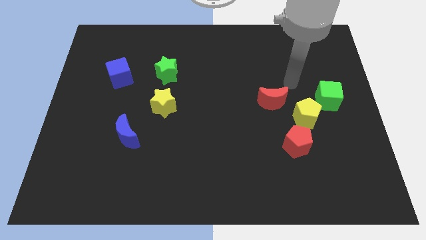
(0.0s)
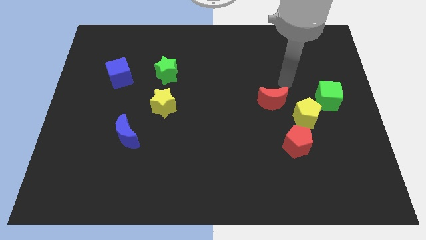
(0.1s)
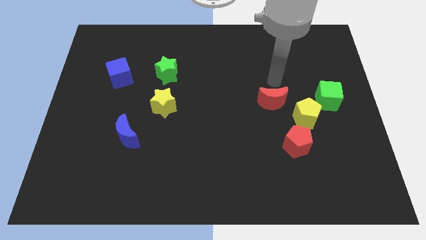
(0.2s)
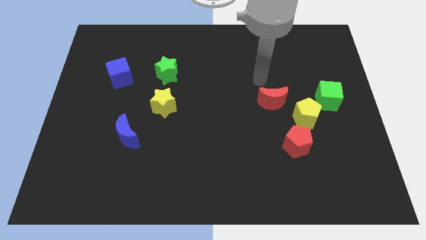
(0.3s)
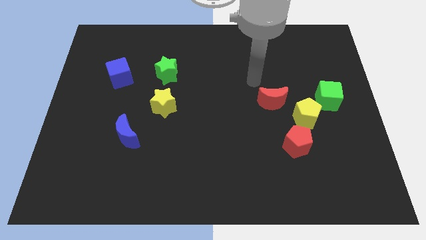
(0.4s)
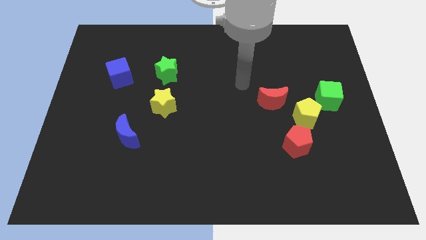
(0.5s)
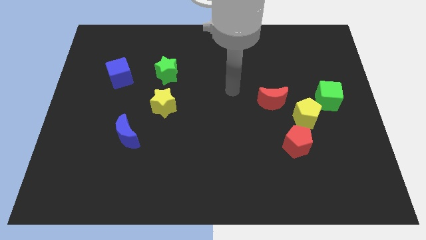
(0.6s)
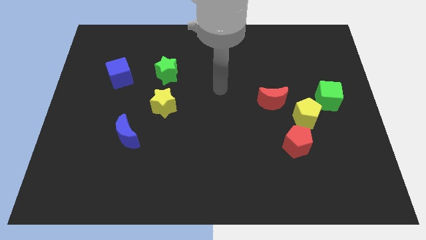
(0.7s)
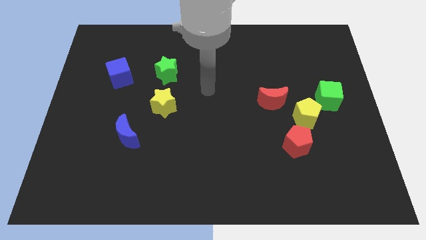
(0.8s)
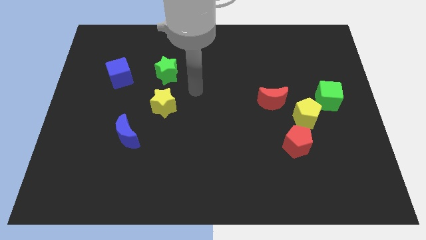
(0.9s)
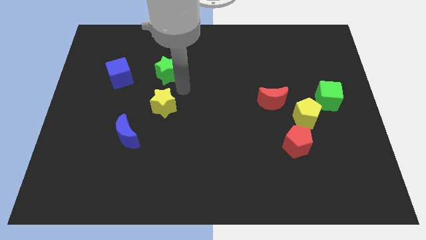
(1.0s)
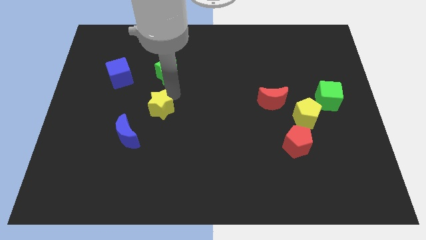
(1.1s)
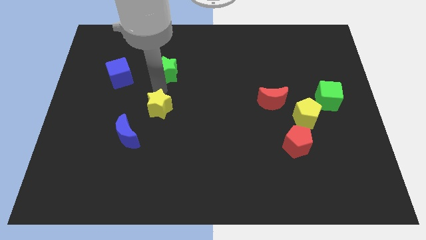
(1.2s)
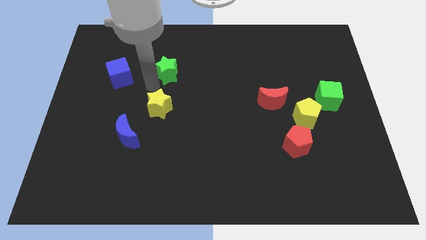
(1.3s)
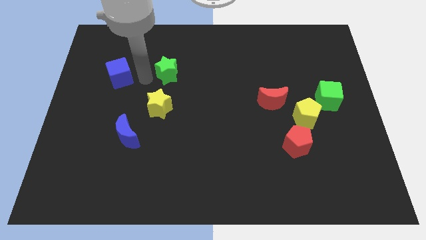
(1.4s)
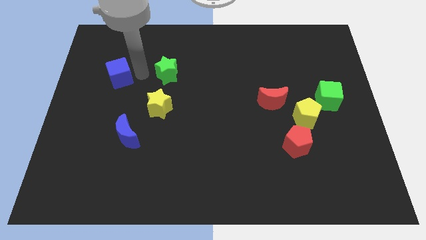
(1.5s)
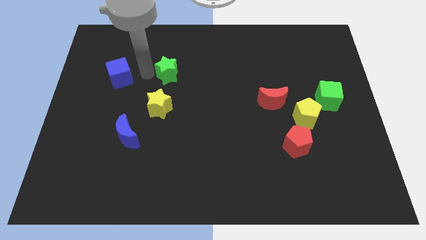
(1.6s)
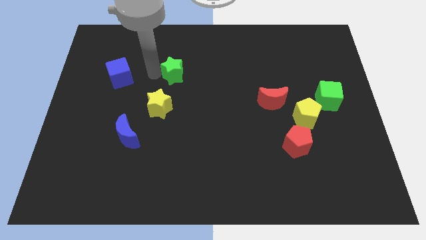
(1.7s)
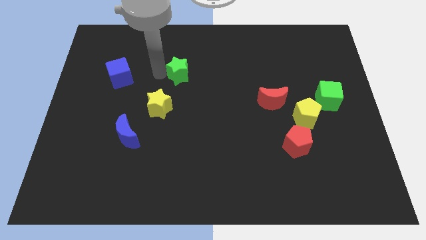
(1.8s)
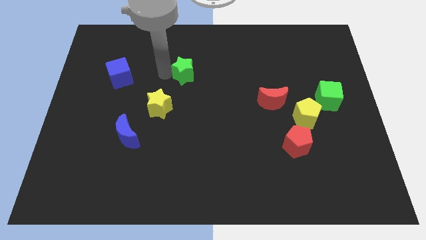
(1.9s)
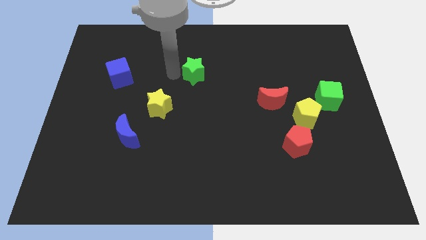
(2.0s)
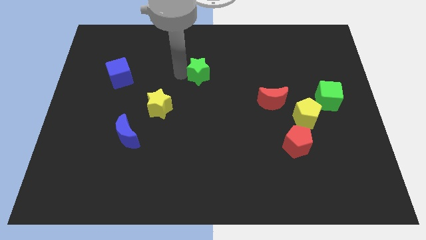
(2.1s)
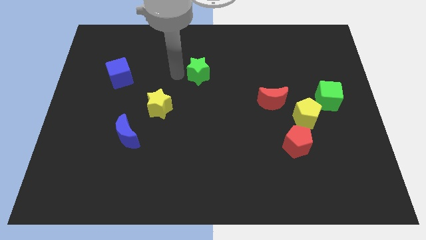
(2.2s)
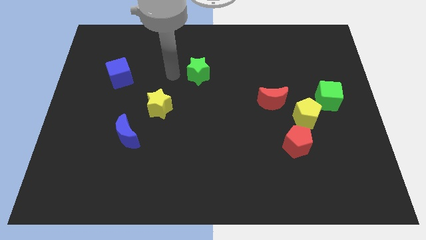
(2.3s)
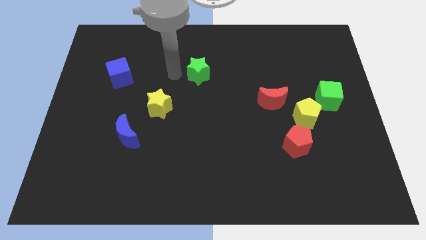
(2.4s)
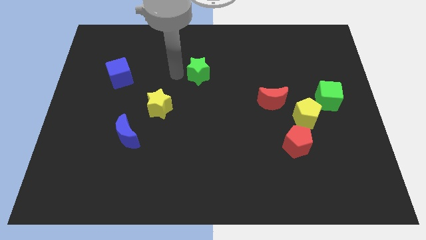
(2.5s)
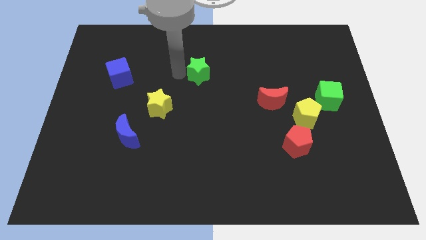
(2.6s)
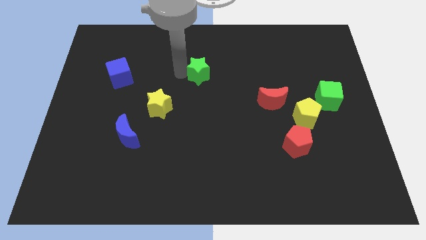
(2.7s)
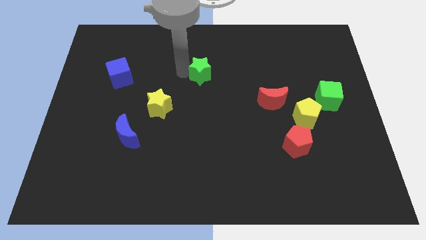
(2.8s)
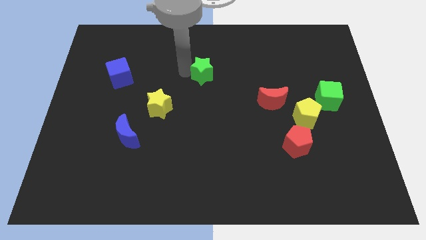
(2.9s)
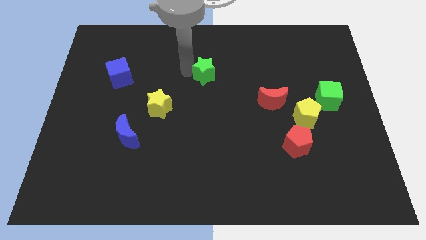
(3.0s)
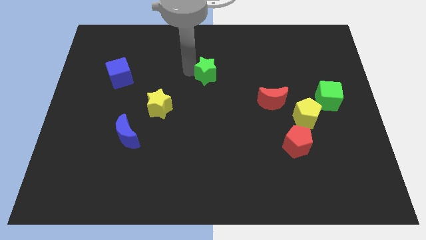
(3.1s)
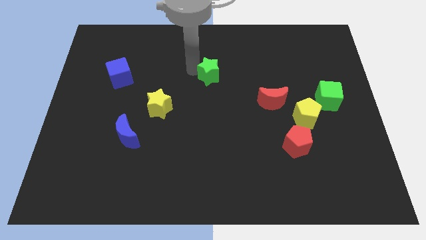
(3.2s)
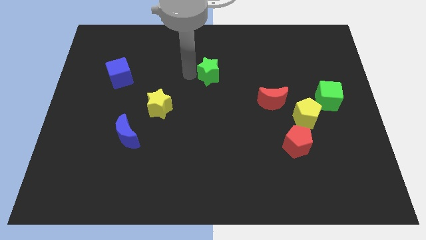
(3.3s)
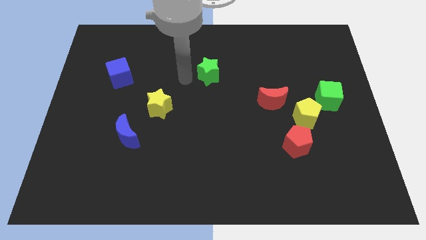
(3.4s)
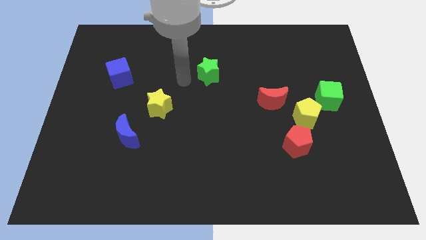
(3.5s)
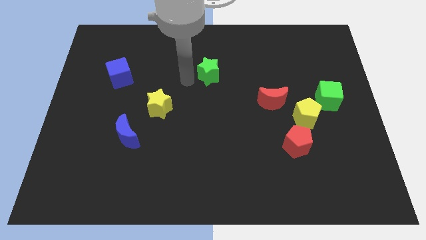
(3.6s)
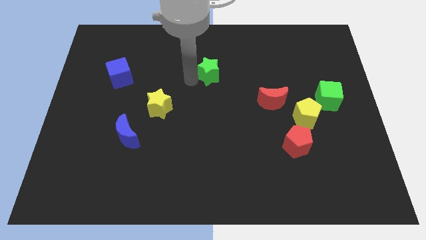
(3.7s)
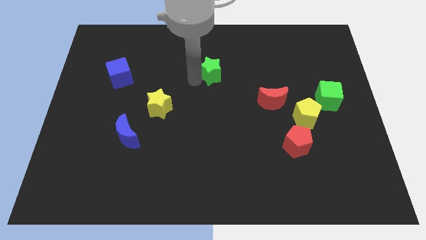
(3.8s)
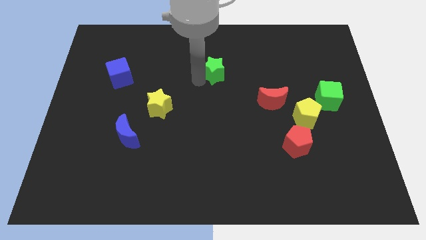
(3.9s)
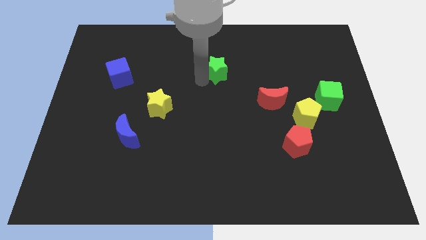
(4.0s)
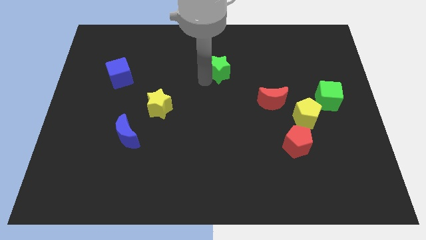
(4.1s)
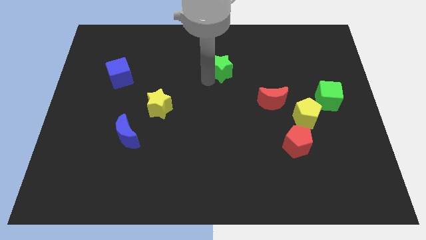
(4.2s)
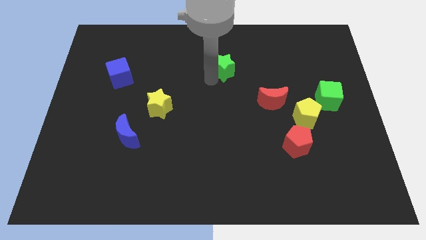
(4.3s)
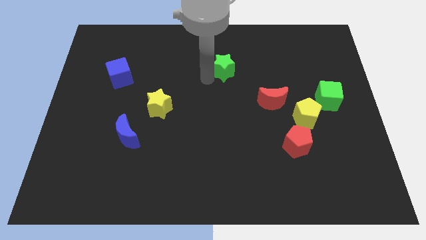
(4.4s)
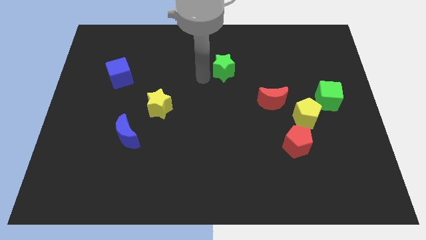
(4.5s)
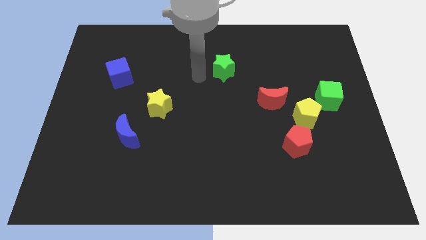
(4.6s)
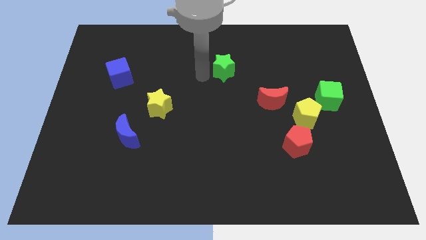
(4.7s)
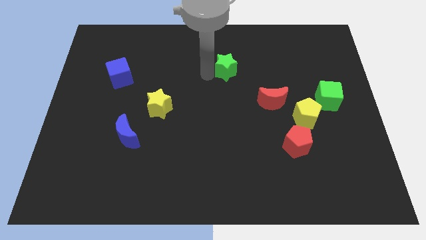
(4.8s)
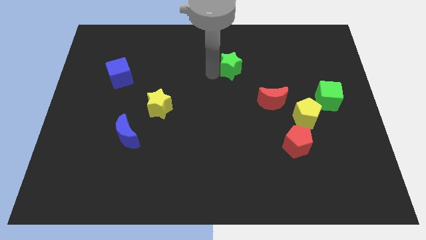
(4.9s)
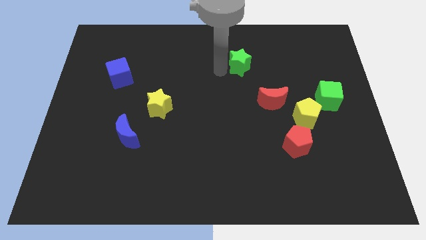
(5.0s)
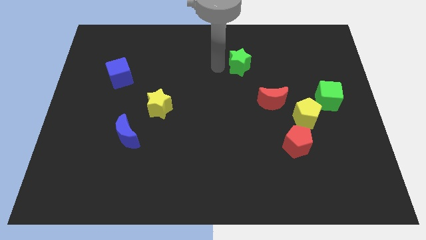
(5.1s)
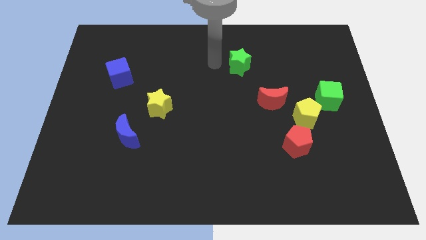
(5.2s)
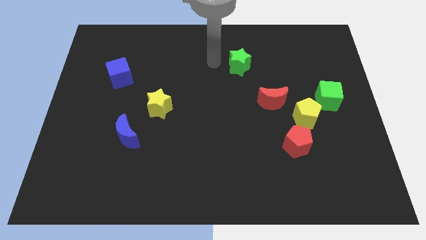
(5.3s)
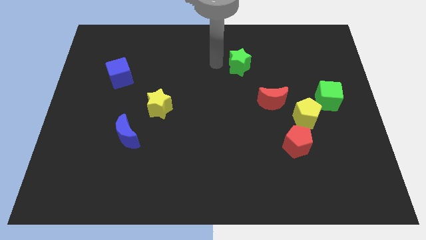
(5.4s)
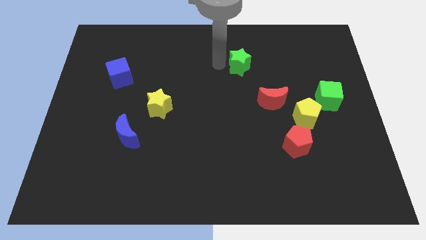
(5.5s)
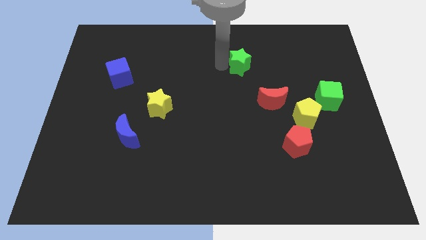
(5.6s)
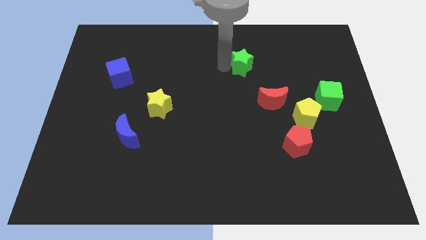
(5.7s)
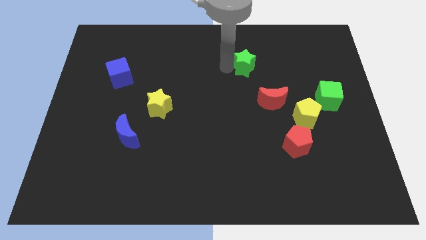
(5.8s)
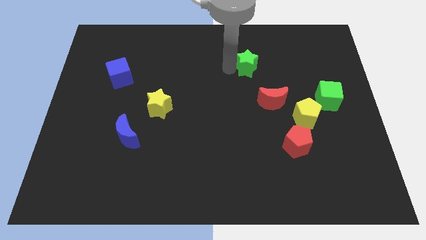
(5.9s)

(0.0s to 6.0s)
push the green star to the right

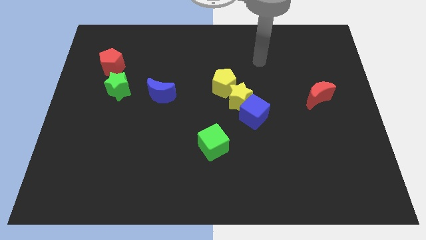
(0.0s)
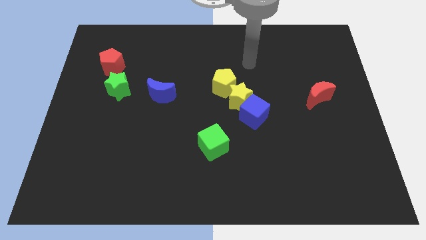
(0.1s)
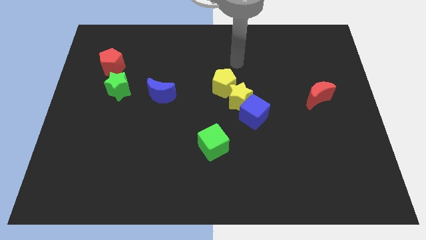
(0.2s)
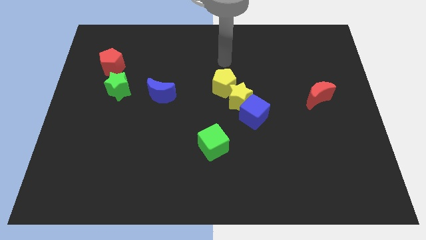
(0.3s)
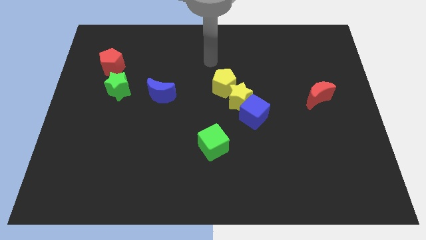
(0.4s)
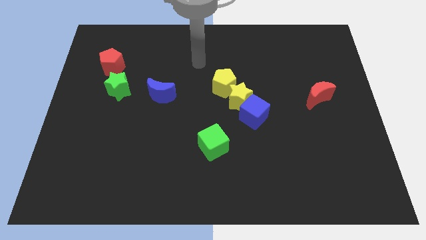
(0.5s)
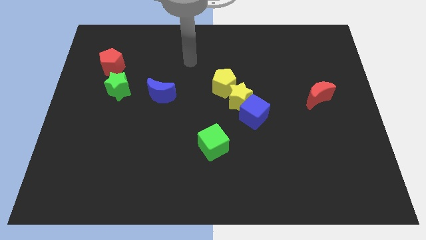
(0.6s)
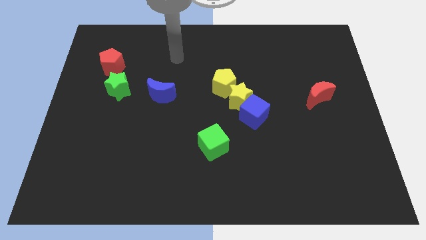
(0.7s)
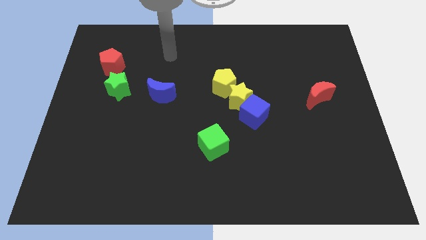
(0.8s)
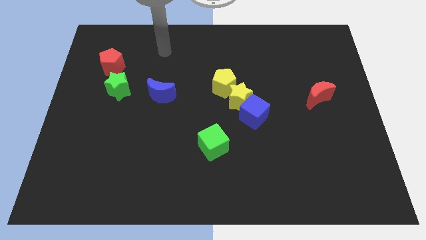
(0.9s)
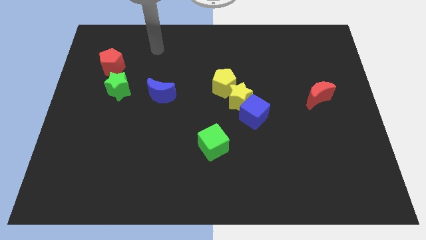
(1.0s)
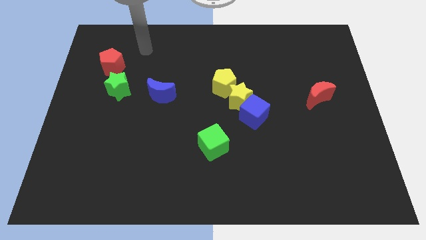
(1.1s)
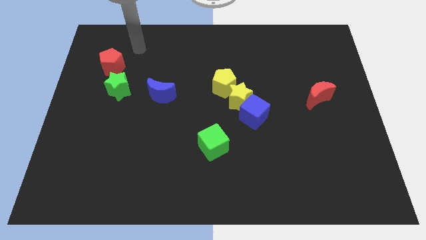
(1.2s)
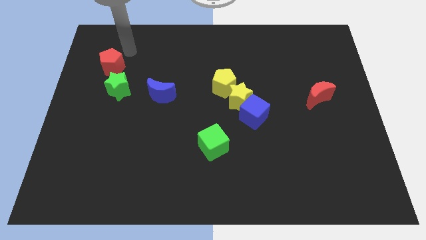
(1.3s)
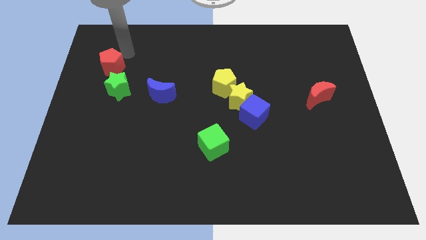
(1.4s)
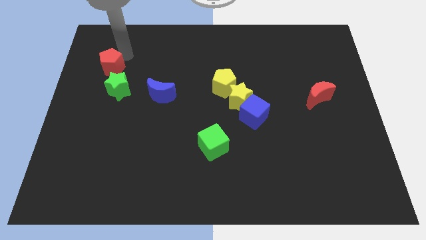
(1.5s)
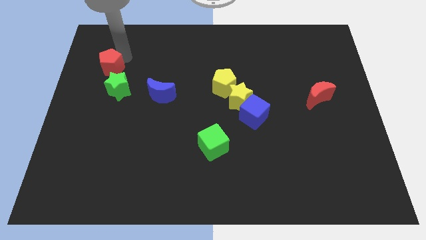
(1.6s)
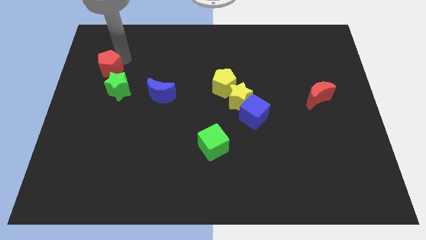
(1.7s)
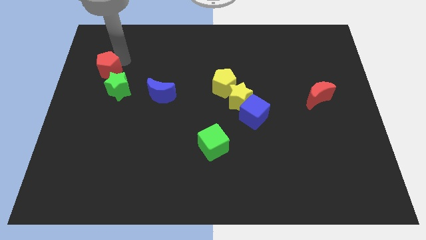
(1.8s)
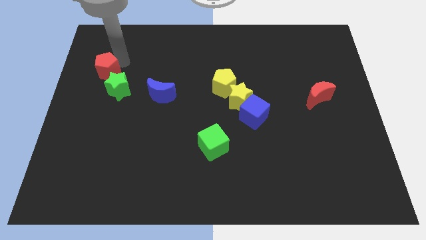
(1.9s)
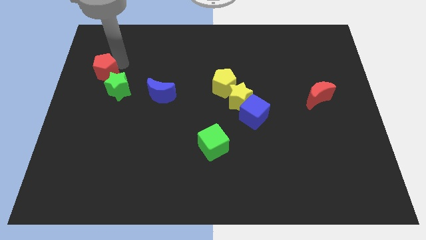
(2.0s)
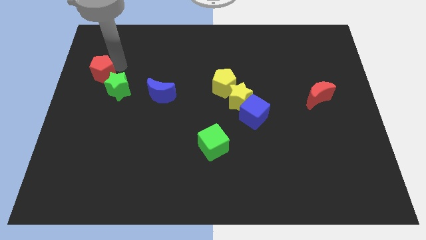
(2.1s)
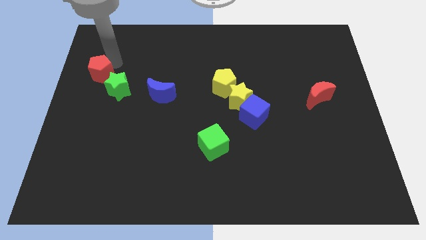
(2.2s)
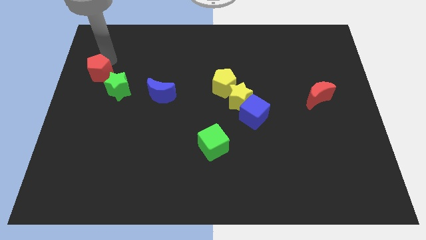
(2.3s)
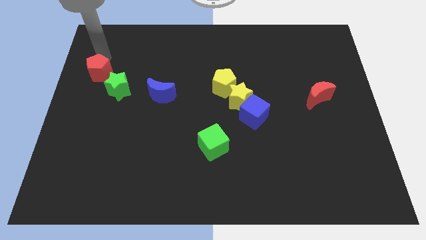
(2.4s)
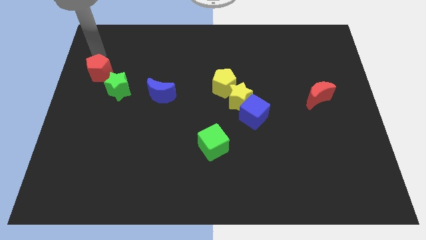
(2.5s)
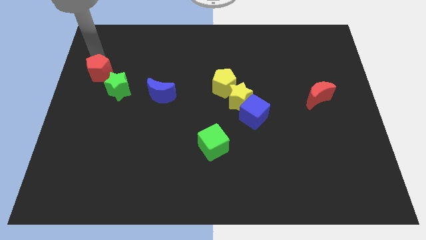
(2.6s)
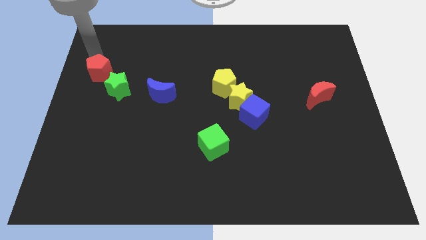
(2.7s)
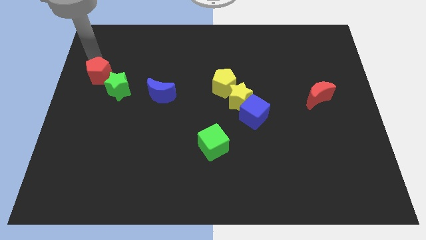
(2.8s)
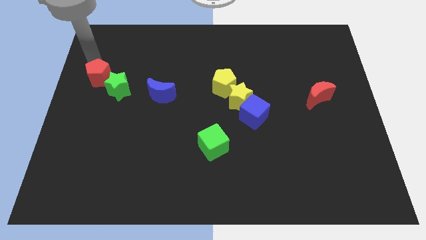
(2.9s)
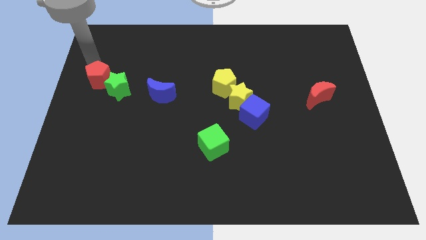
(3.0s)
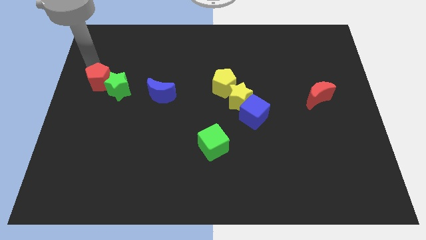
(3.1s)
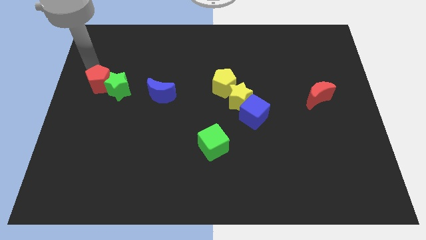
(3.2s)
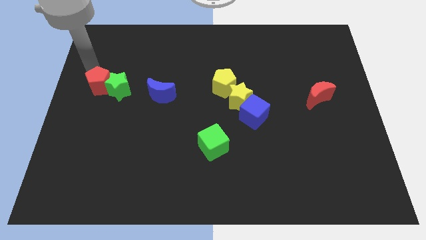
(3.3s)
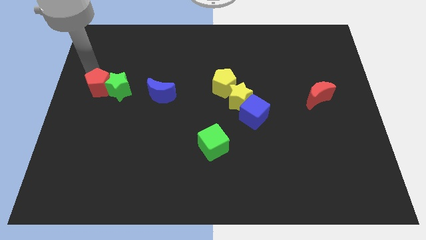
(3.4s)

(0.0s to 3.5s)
slightly slide the red pentagon downwards
